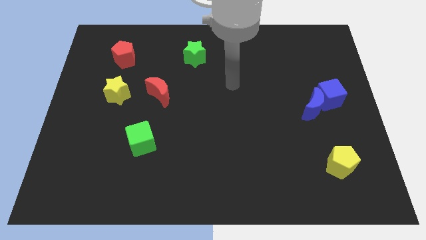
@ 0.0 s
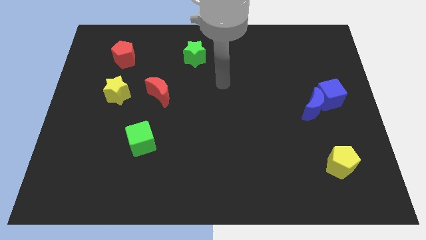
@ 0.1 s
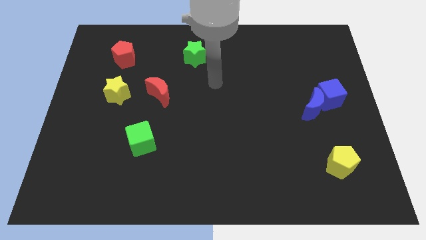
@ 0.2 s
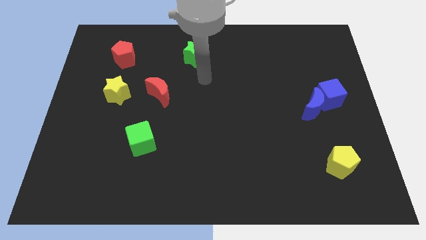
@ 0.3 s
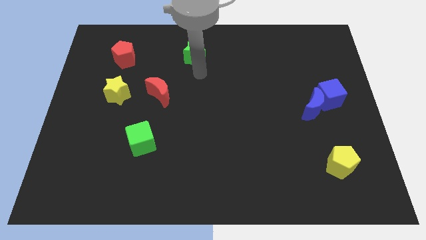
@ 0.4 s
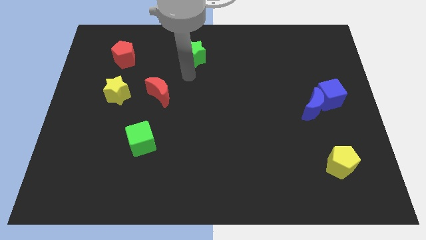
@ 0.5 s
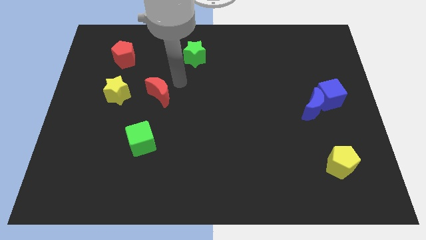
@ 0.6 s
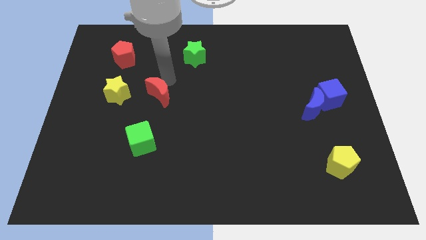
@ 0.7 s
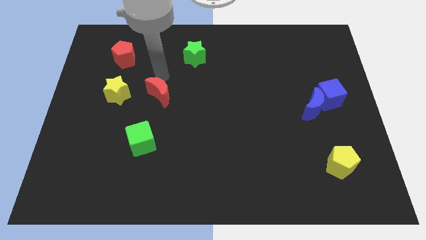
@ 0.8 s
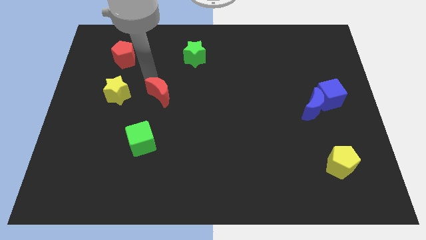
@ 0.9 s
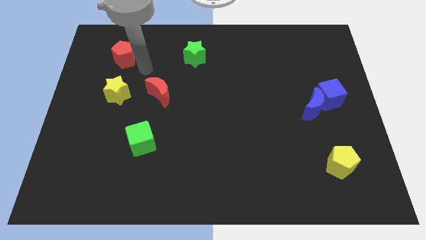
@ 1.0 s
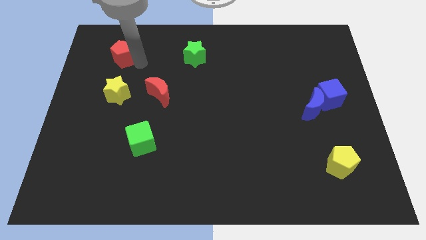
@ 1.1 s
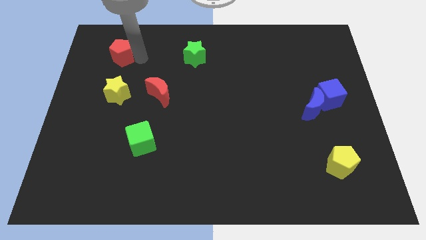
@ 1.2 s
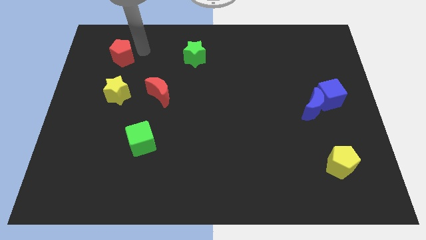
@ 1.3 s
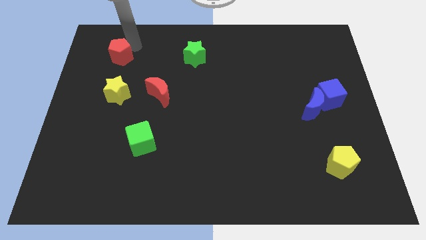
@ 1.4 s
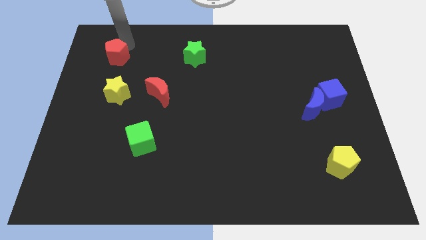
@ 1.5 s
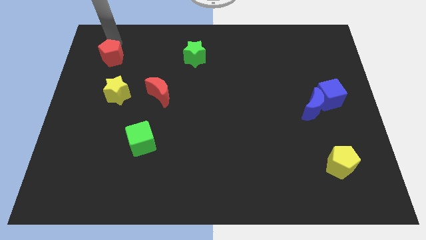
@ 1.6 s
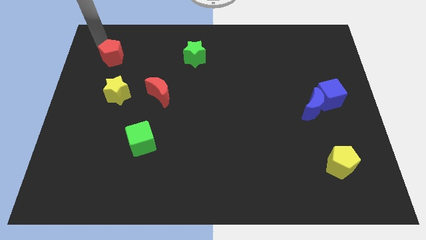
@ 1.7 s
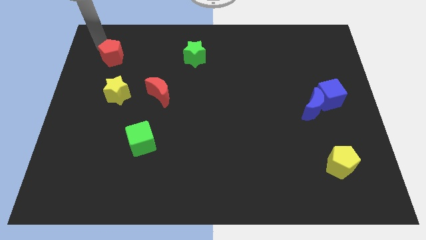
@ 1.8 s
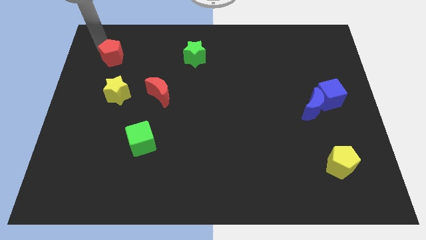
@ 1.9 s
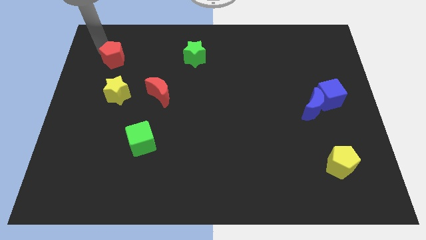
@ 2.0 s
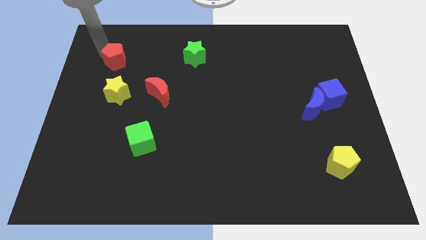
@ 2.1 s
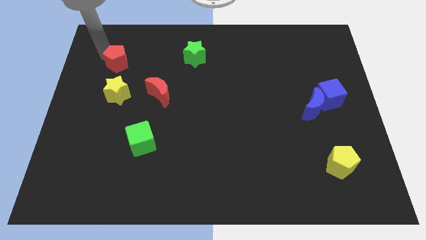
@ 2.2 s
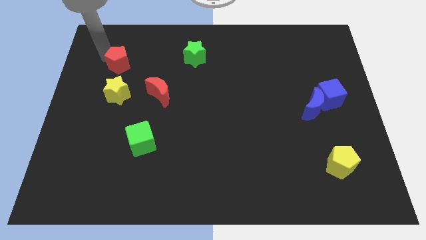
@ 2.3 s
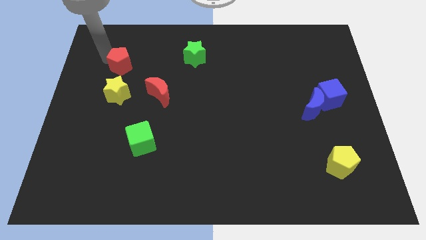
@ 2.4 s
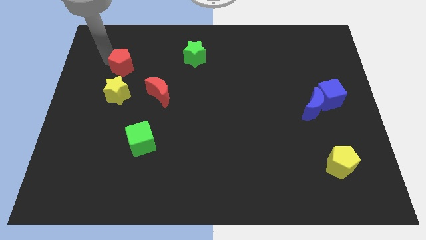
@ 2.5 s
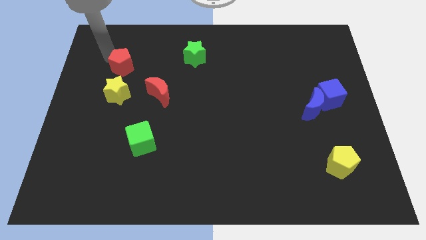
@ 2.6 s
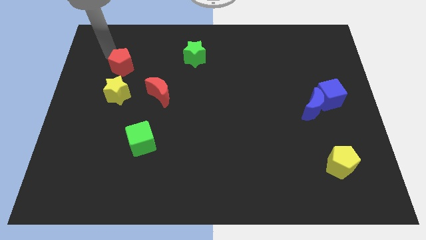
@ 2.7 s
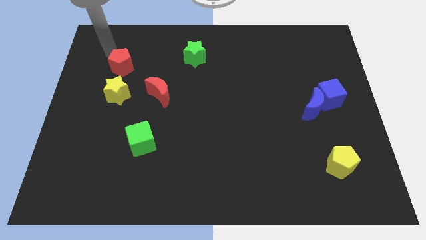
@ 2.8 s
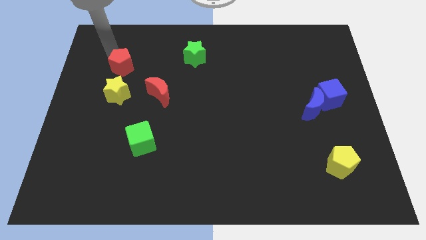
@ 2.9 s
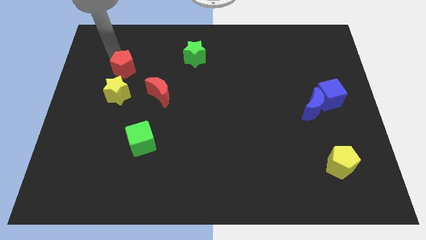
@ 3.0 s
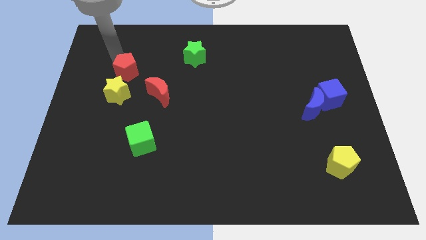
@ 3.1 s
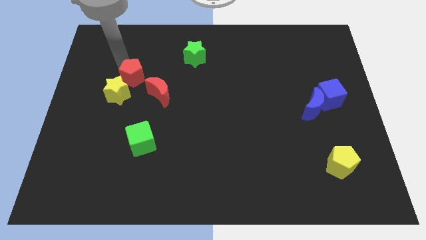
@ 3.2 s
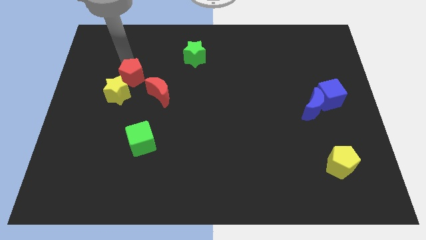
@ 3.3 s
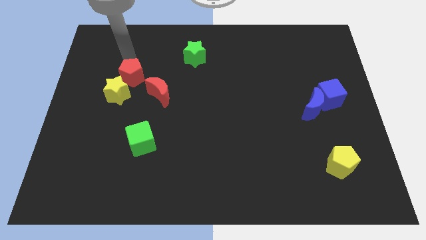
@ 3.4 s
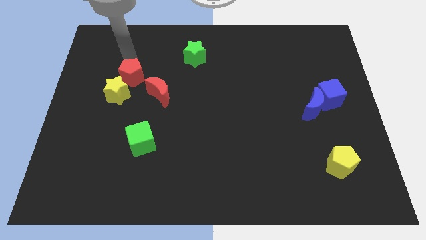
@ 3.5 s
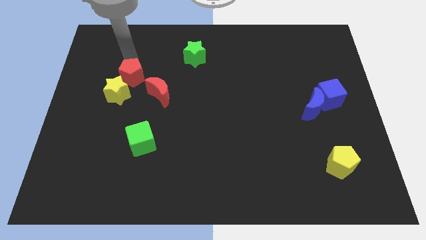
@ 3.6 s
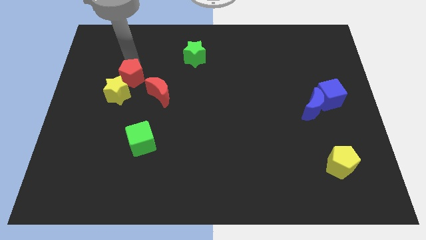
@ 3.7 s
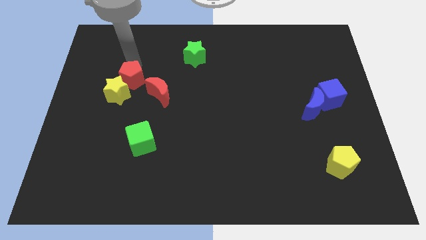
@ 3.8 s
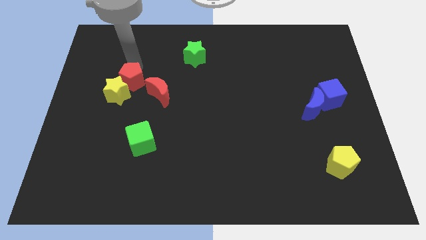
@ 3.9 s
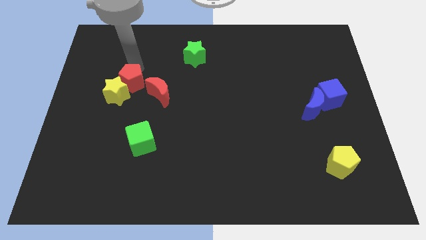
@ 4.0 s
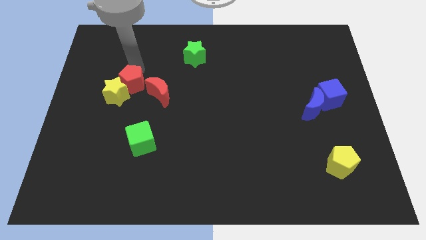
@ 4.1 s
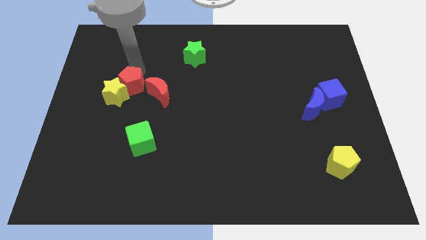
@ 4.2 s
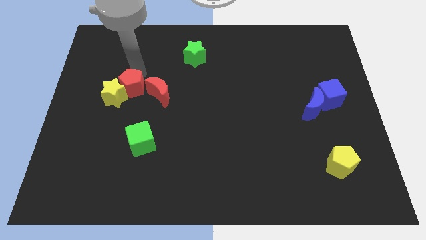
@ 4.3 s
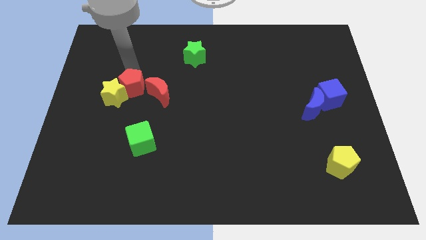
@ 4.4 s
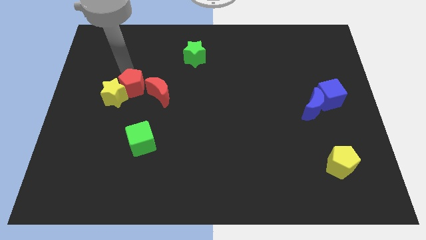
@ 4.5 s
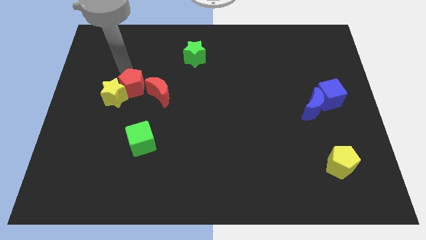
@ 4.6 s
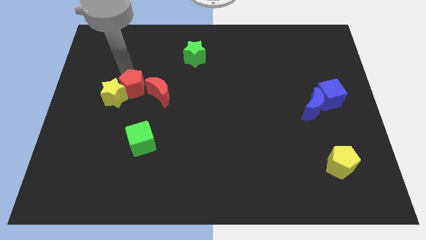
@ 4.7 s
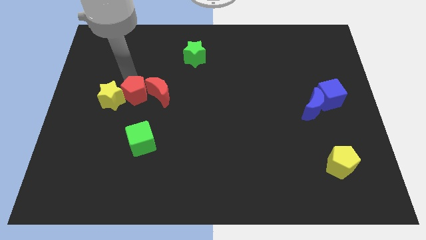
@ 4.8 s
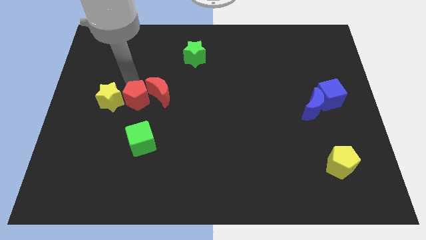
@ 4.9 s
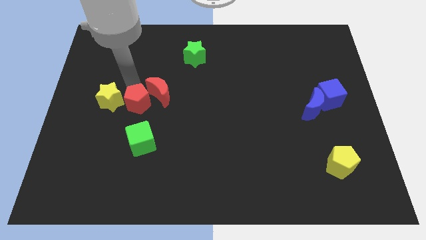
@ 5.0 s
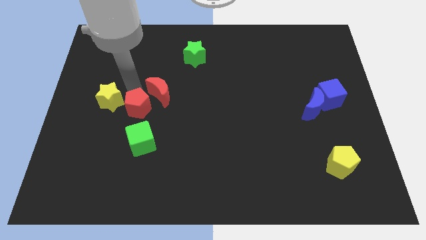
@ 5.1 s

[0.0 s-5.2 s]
push the red pentagon below the red moon

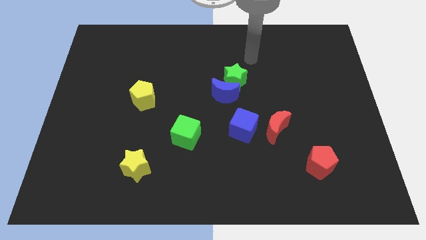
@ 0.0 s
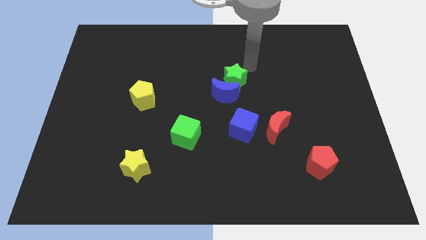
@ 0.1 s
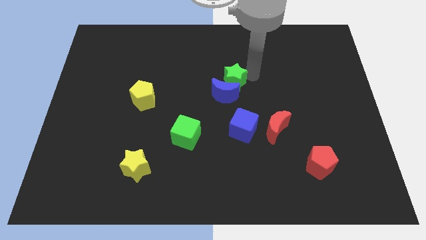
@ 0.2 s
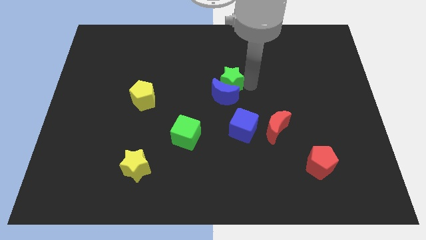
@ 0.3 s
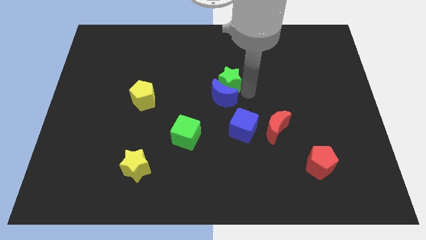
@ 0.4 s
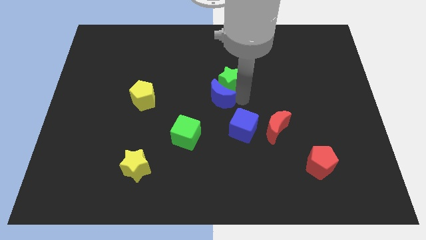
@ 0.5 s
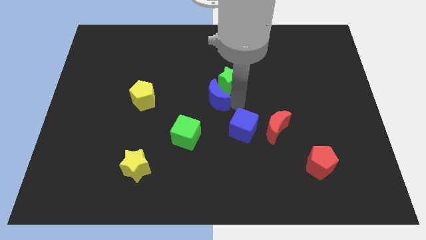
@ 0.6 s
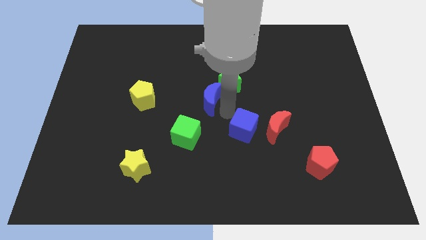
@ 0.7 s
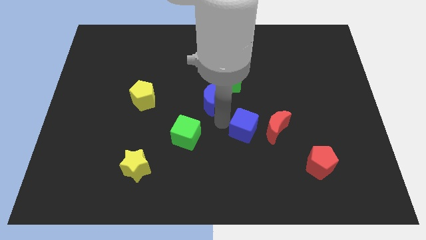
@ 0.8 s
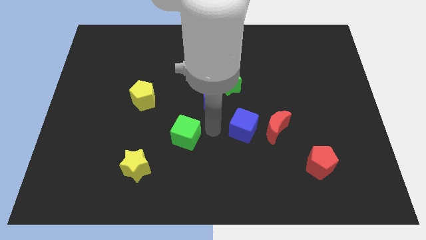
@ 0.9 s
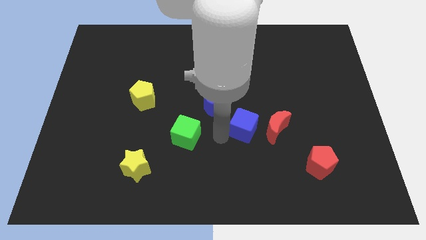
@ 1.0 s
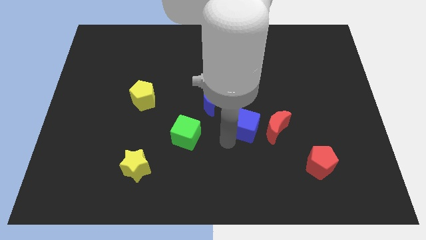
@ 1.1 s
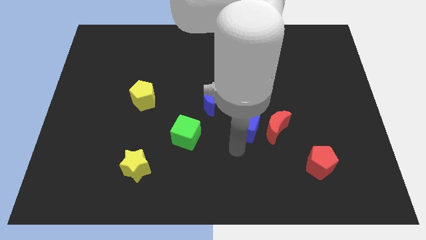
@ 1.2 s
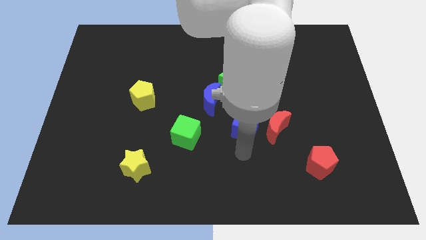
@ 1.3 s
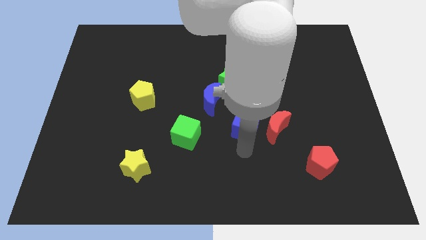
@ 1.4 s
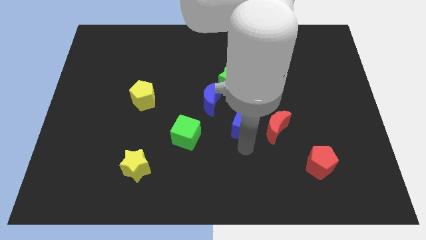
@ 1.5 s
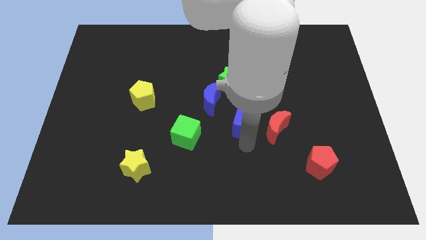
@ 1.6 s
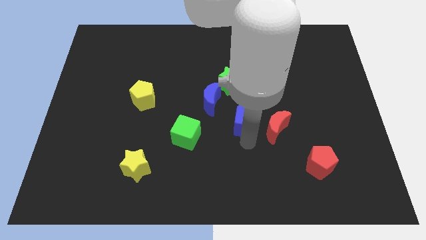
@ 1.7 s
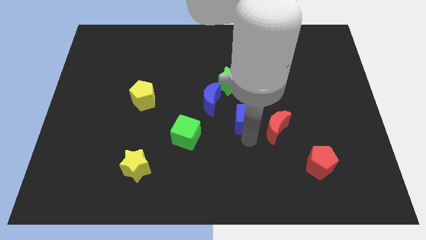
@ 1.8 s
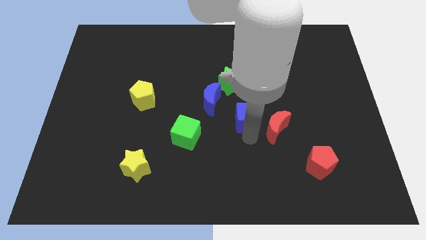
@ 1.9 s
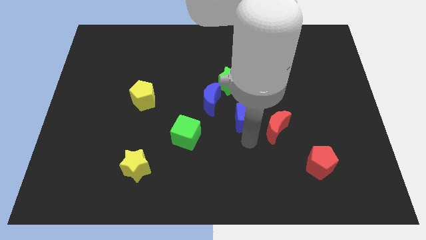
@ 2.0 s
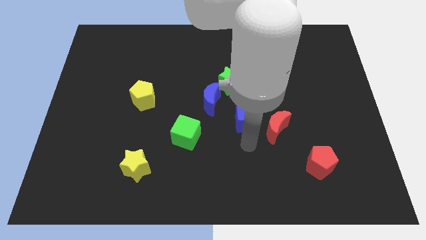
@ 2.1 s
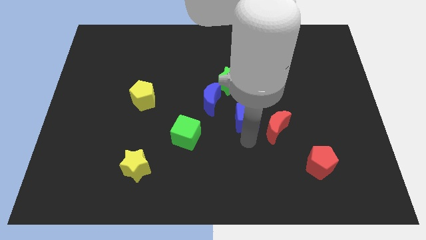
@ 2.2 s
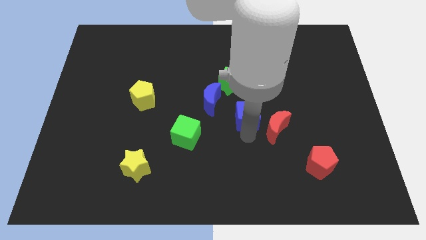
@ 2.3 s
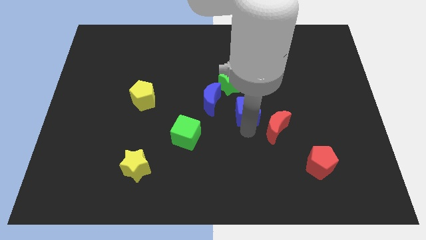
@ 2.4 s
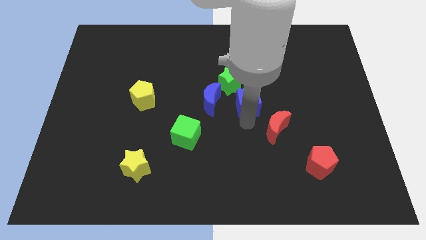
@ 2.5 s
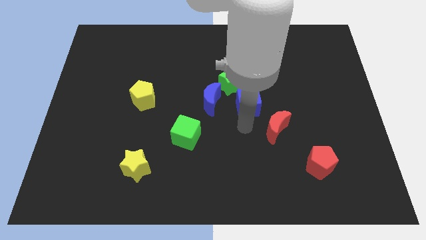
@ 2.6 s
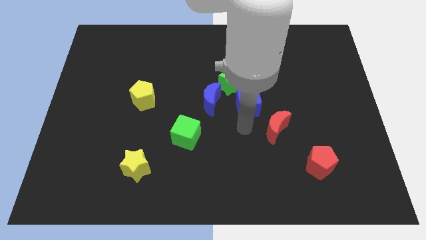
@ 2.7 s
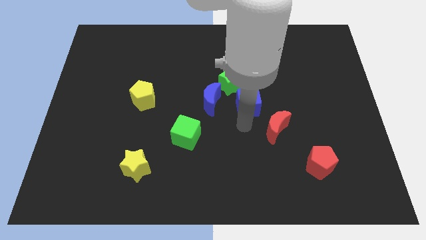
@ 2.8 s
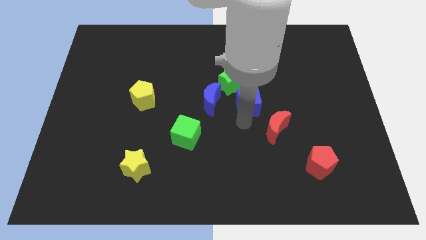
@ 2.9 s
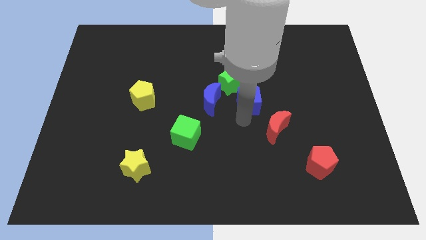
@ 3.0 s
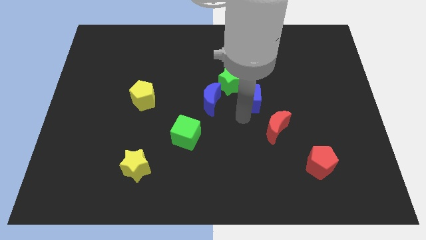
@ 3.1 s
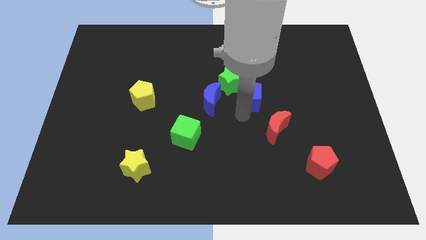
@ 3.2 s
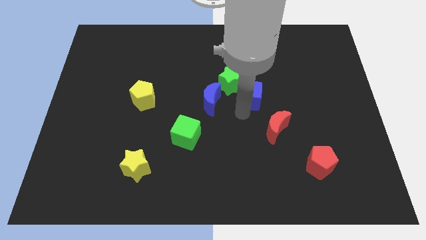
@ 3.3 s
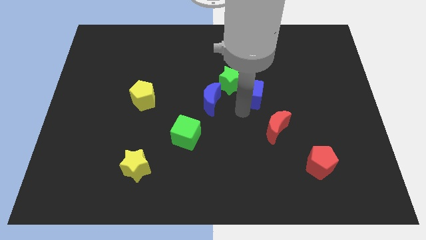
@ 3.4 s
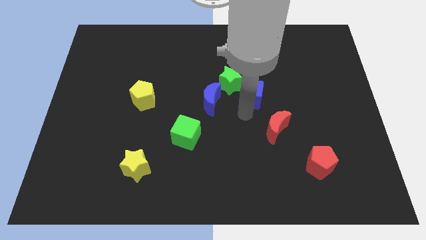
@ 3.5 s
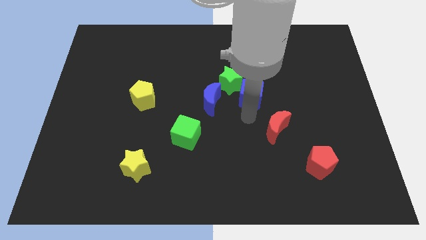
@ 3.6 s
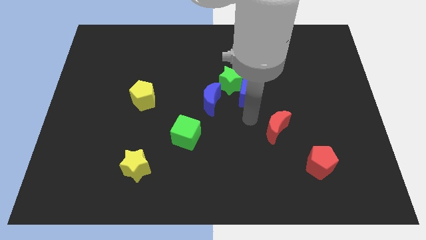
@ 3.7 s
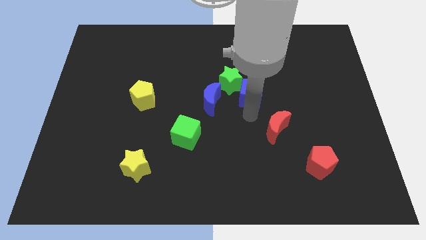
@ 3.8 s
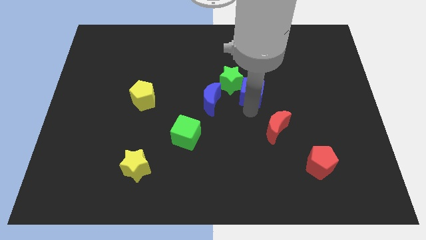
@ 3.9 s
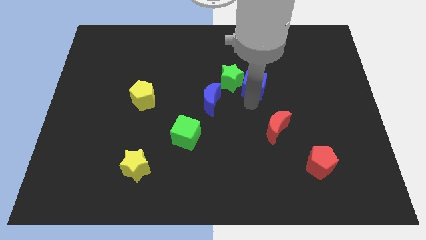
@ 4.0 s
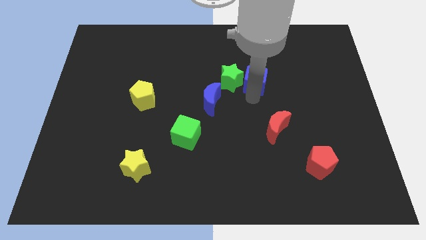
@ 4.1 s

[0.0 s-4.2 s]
move the blue cube to the top right side of the green star
